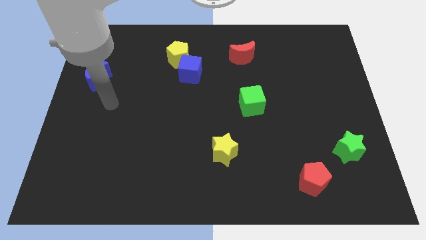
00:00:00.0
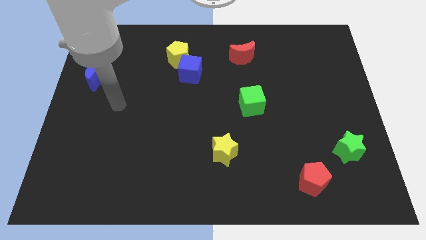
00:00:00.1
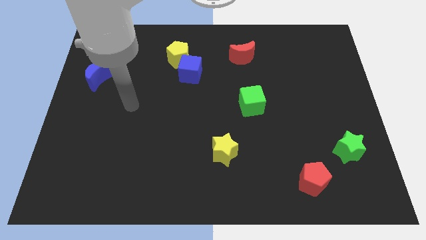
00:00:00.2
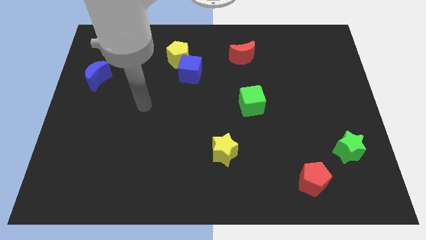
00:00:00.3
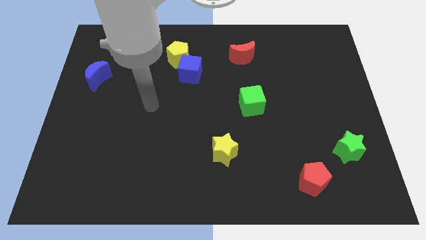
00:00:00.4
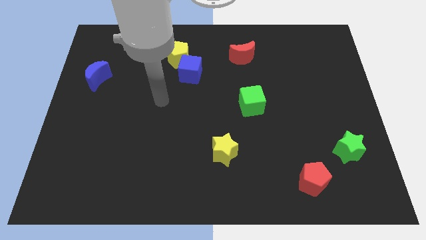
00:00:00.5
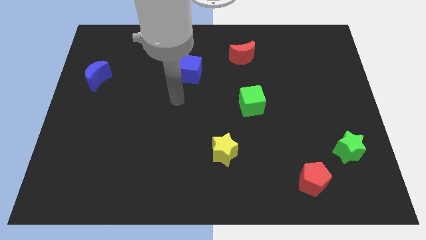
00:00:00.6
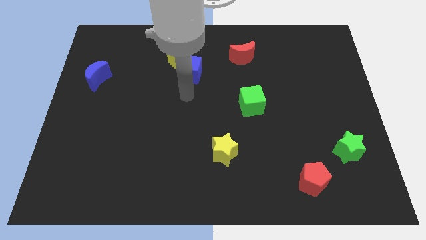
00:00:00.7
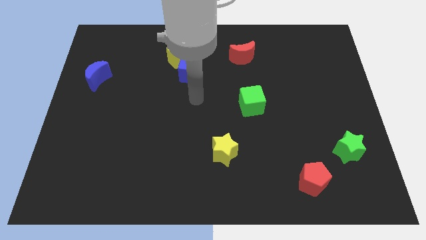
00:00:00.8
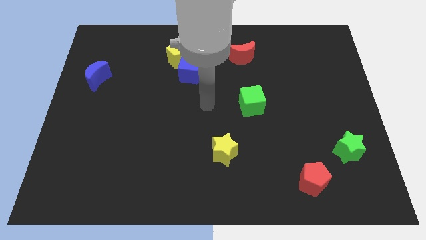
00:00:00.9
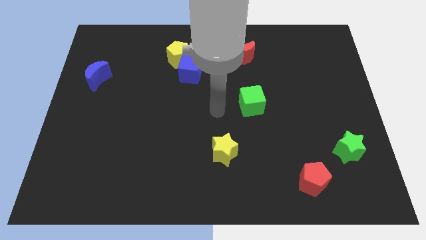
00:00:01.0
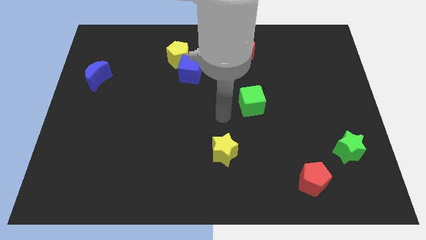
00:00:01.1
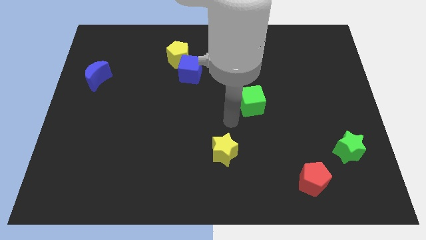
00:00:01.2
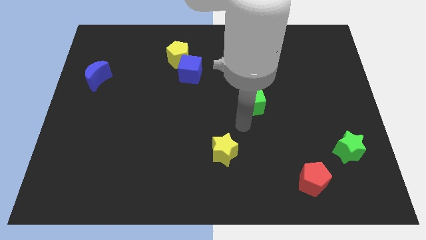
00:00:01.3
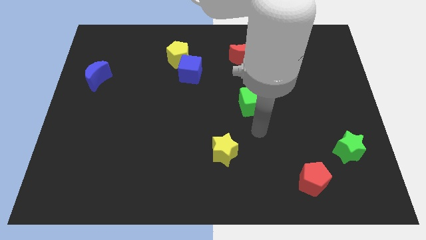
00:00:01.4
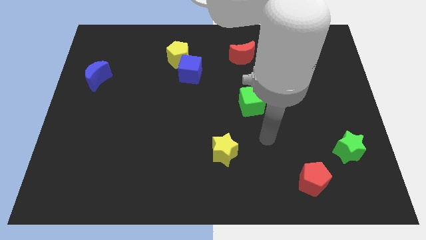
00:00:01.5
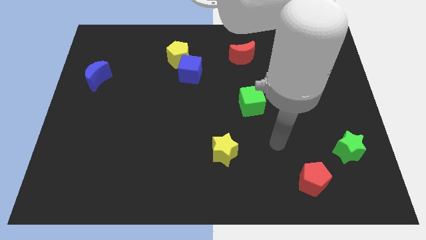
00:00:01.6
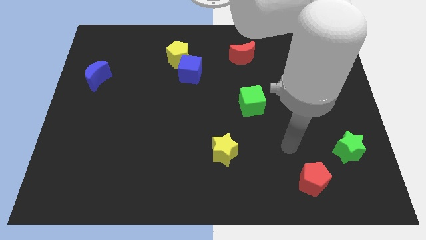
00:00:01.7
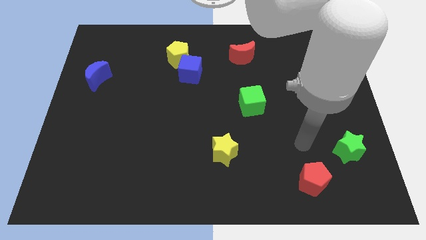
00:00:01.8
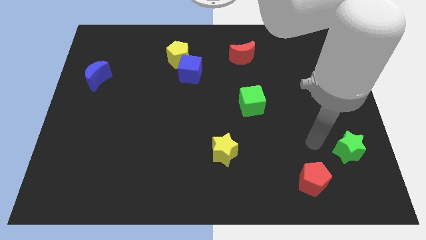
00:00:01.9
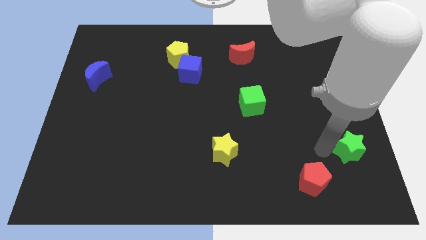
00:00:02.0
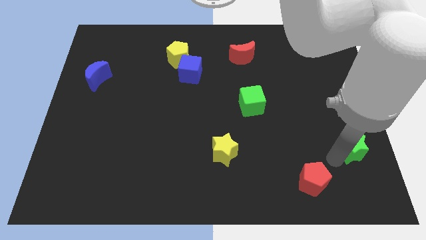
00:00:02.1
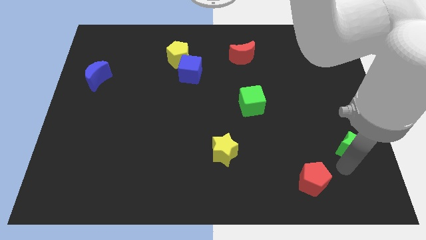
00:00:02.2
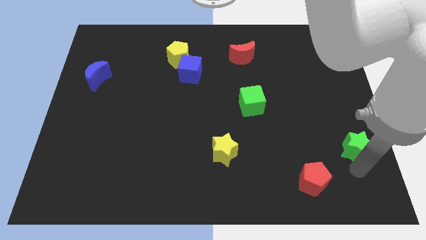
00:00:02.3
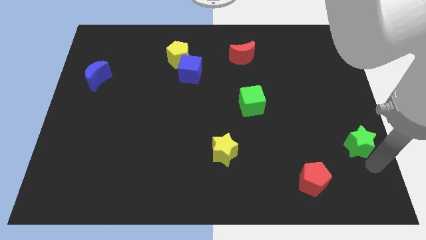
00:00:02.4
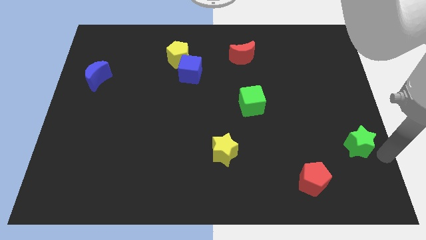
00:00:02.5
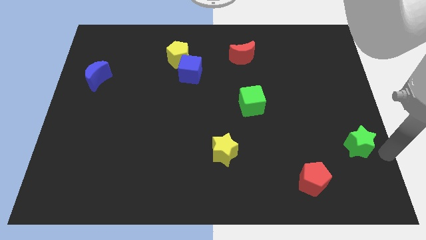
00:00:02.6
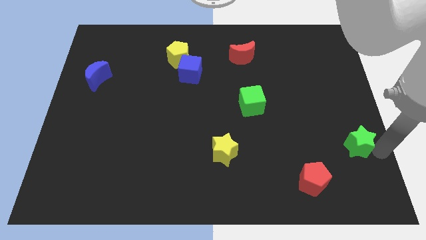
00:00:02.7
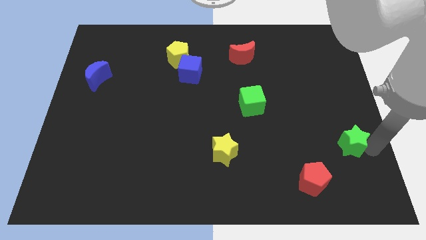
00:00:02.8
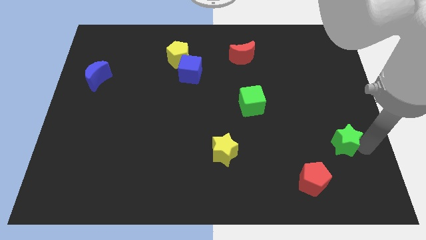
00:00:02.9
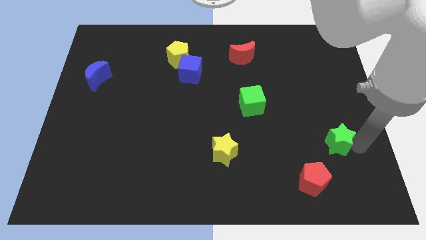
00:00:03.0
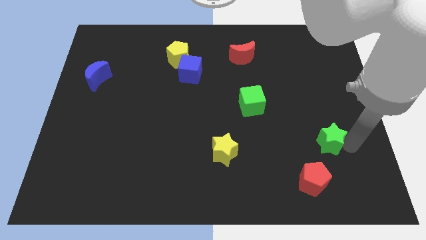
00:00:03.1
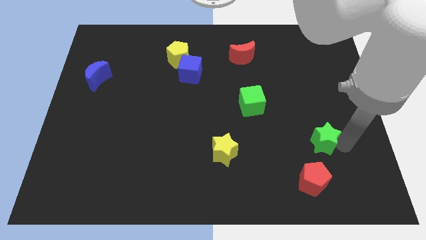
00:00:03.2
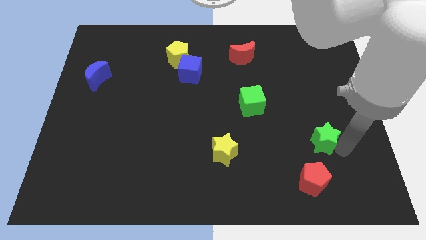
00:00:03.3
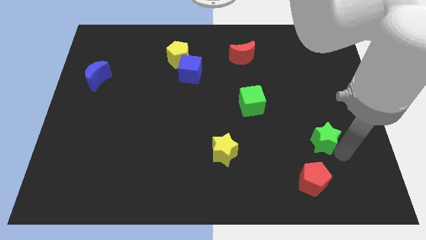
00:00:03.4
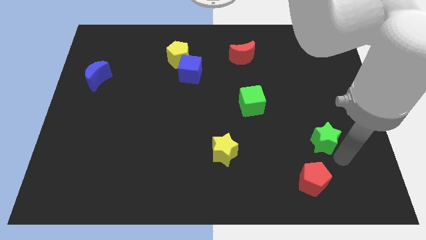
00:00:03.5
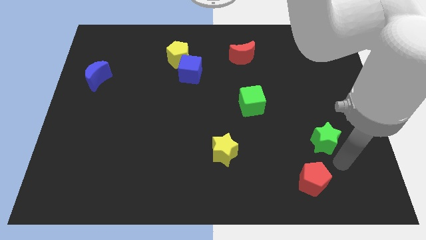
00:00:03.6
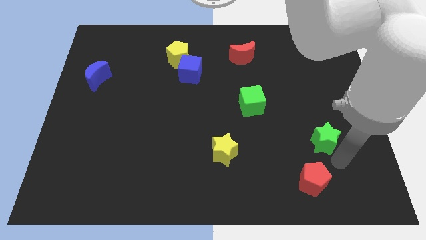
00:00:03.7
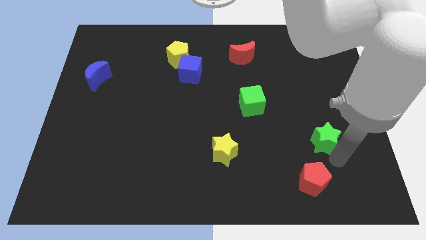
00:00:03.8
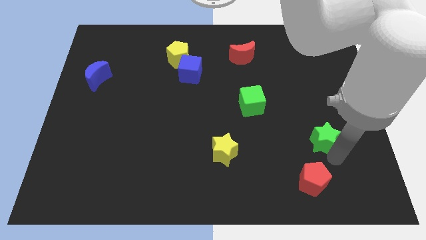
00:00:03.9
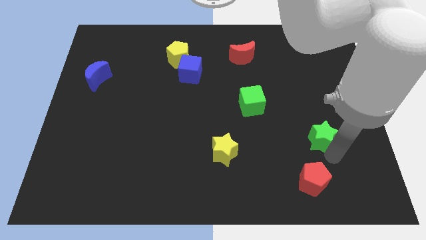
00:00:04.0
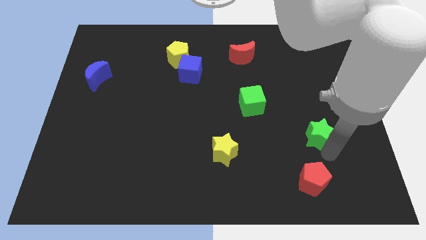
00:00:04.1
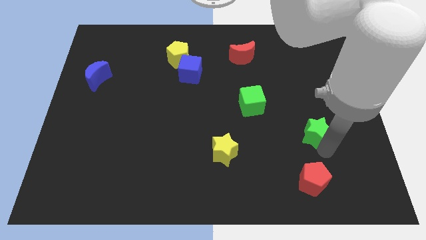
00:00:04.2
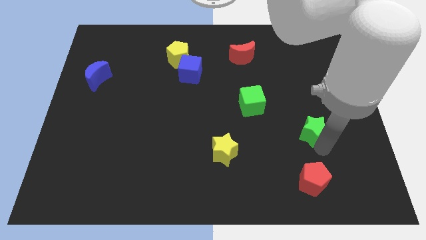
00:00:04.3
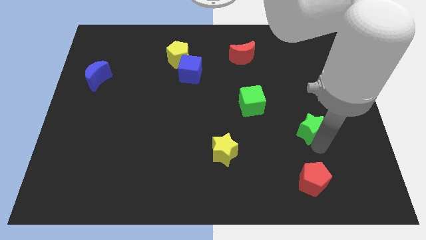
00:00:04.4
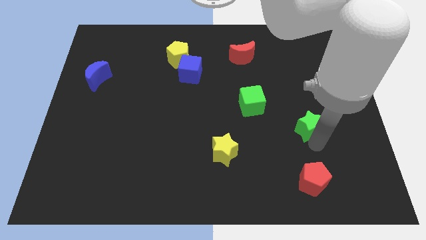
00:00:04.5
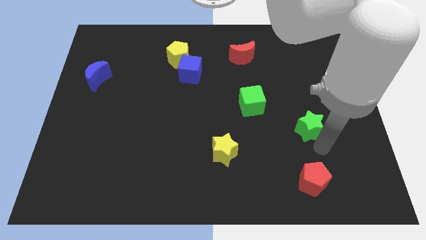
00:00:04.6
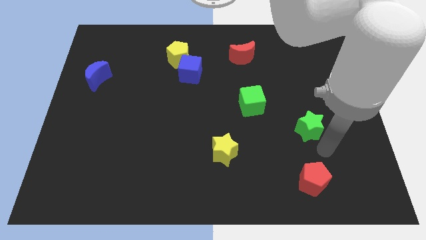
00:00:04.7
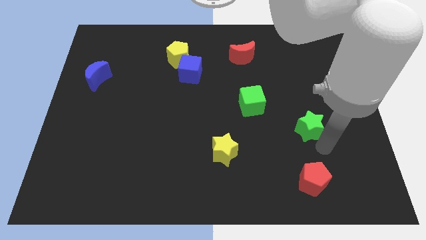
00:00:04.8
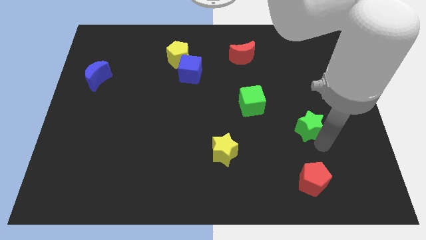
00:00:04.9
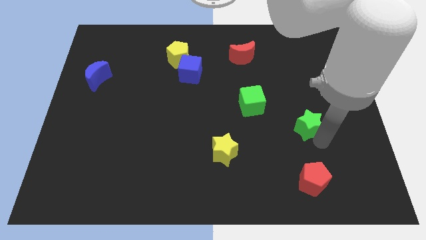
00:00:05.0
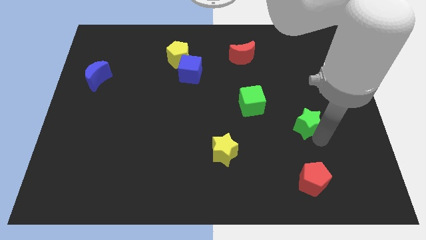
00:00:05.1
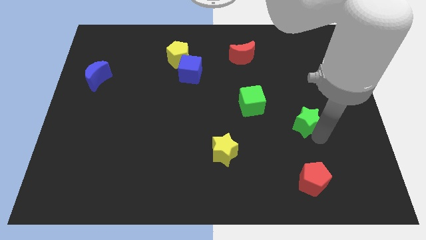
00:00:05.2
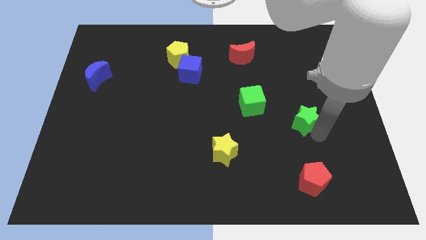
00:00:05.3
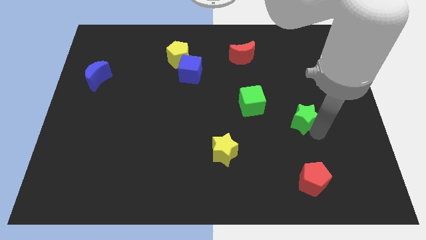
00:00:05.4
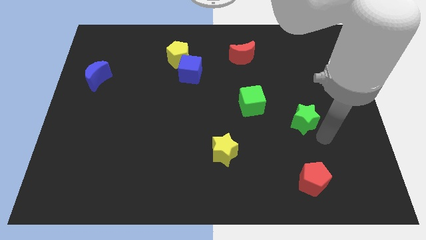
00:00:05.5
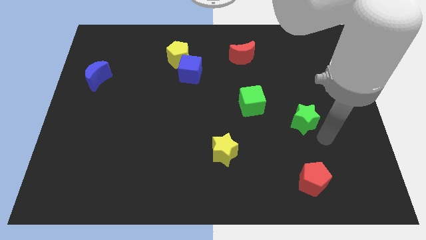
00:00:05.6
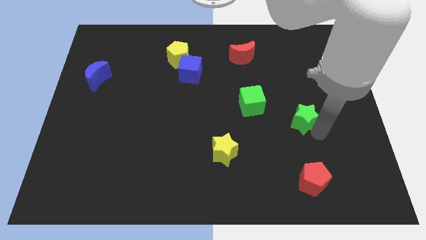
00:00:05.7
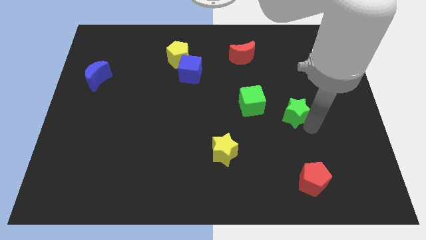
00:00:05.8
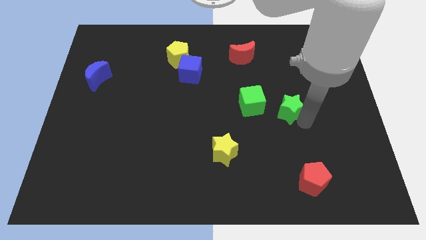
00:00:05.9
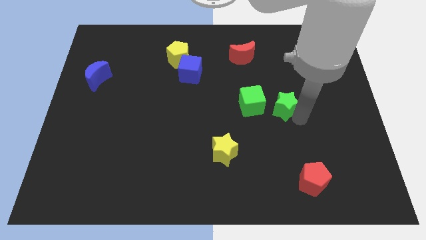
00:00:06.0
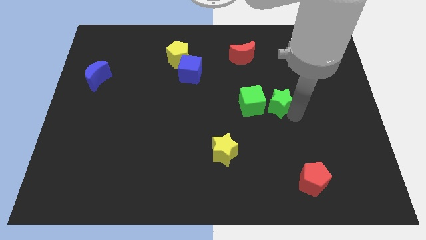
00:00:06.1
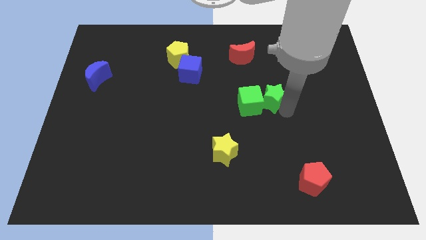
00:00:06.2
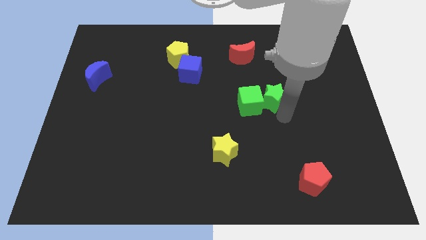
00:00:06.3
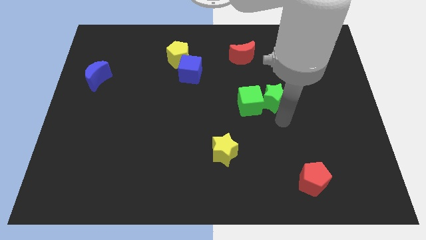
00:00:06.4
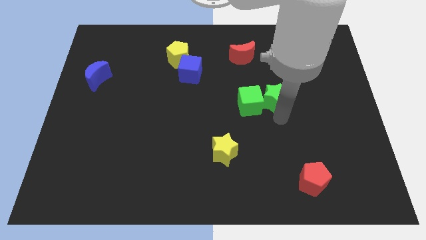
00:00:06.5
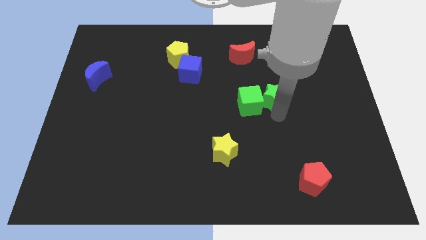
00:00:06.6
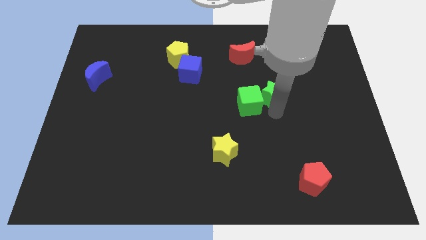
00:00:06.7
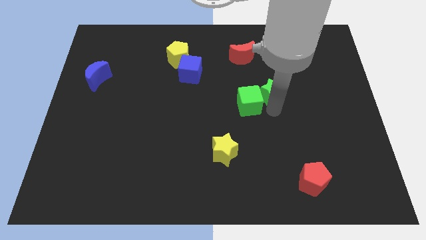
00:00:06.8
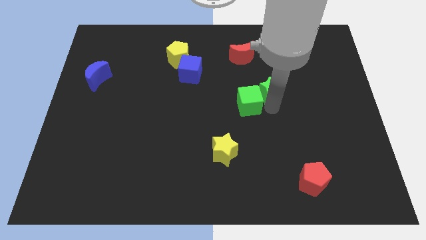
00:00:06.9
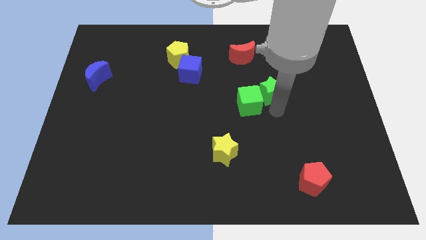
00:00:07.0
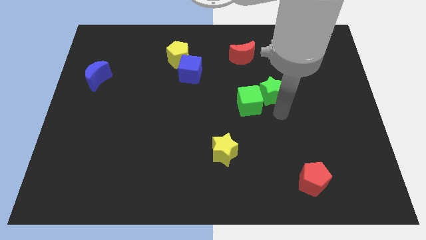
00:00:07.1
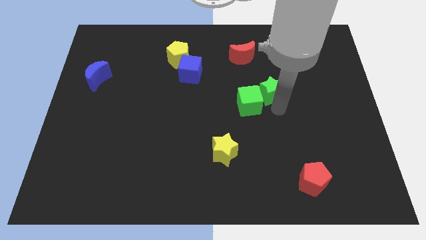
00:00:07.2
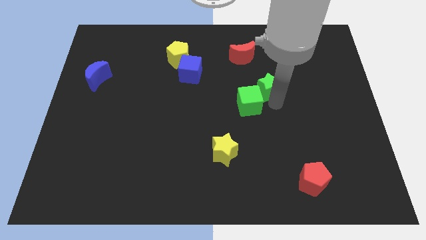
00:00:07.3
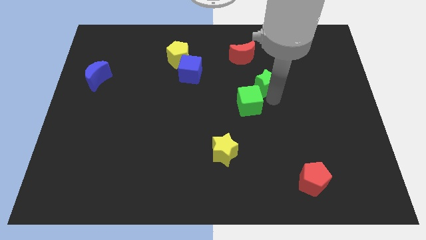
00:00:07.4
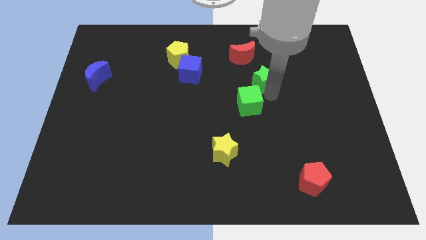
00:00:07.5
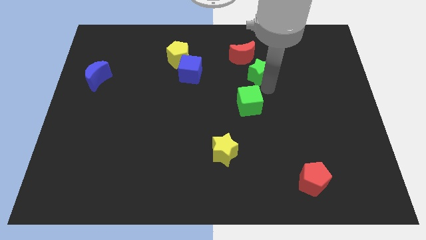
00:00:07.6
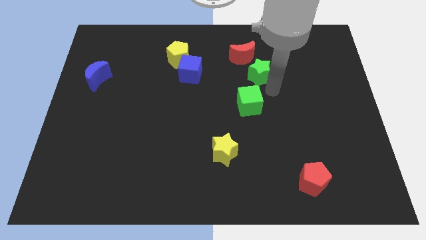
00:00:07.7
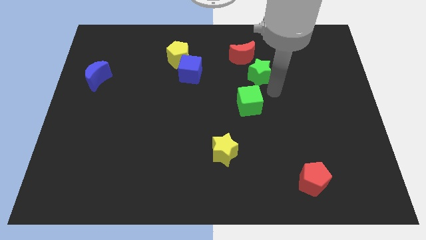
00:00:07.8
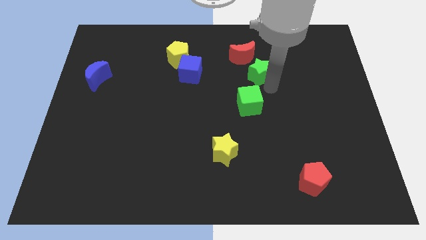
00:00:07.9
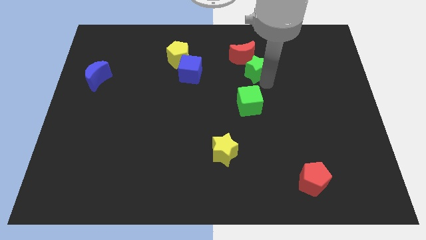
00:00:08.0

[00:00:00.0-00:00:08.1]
push the green star towards the red moon

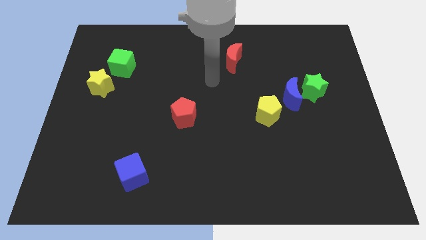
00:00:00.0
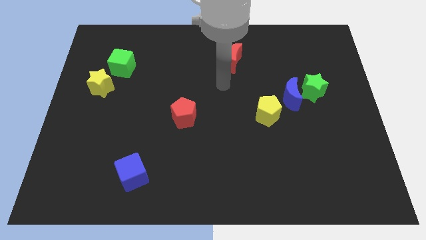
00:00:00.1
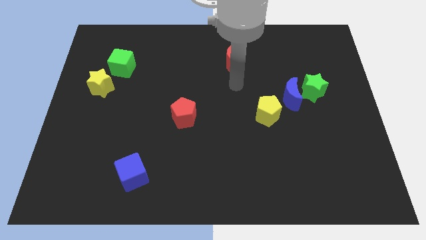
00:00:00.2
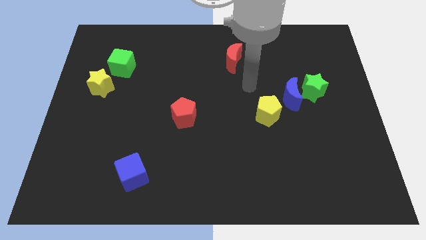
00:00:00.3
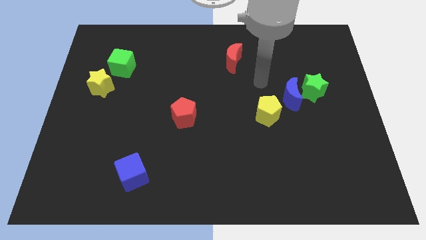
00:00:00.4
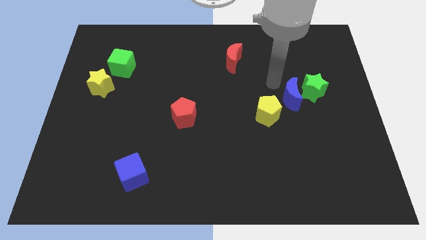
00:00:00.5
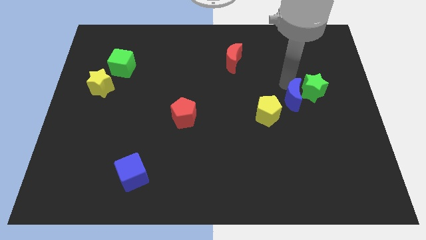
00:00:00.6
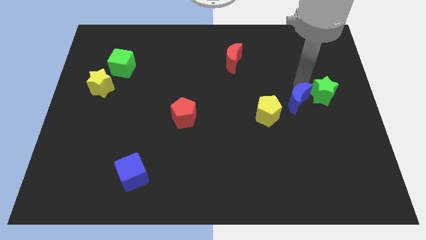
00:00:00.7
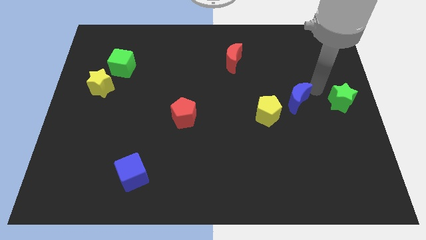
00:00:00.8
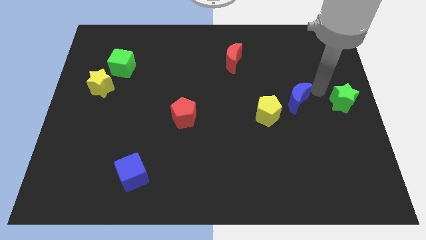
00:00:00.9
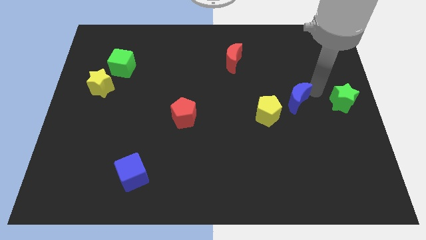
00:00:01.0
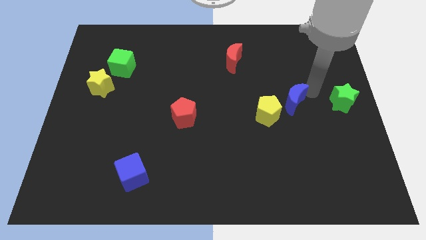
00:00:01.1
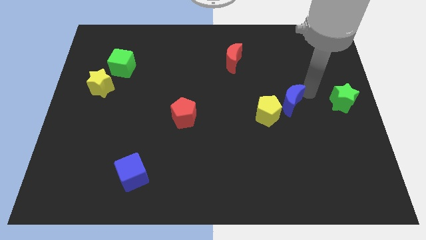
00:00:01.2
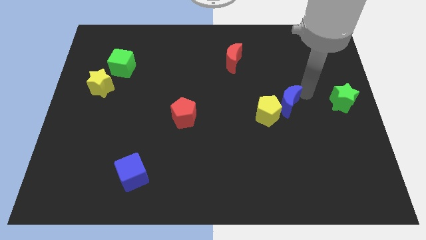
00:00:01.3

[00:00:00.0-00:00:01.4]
put the blue moon next to the yellow pentagon
